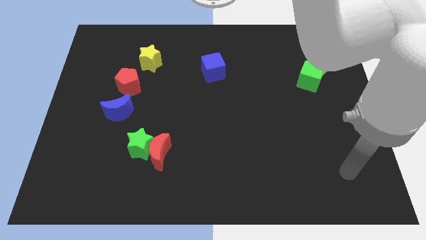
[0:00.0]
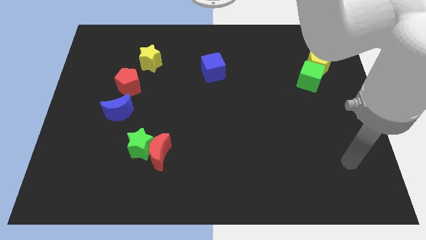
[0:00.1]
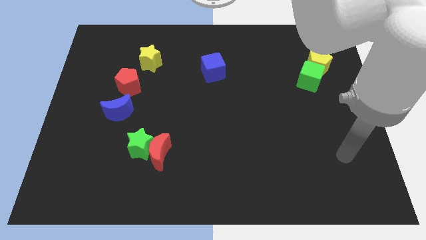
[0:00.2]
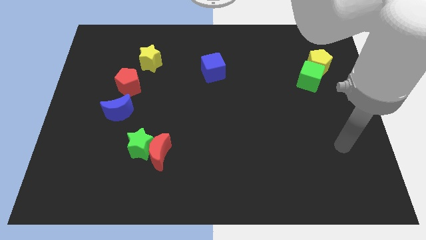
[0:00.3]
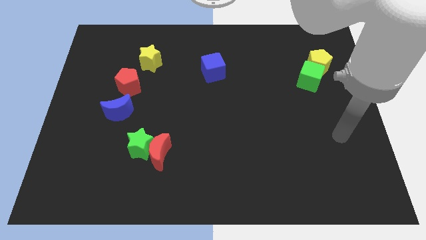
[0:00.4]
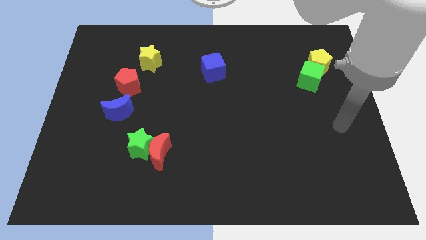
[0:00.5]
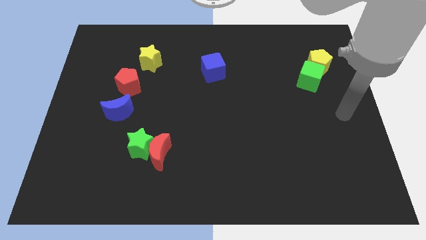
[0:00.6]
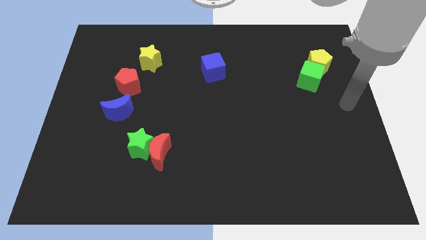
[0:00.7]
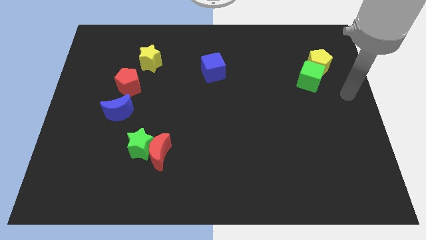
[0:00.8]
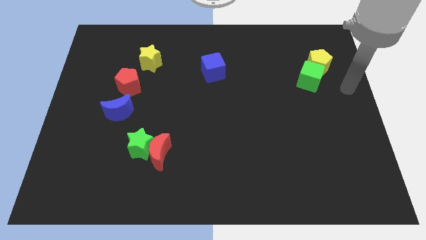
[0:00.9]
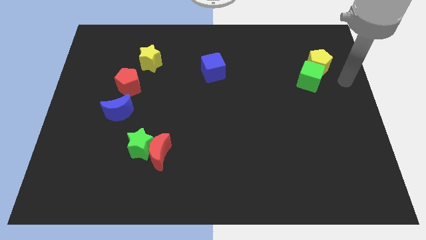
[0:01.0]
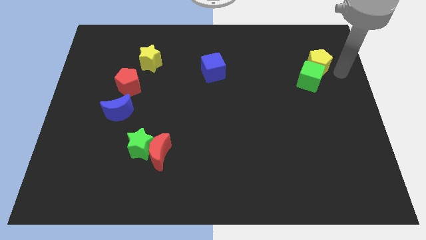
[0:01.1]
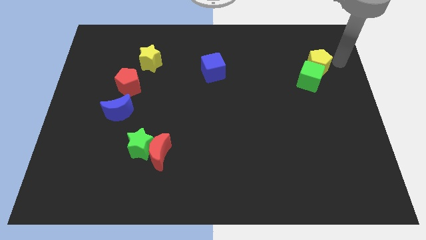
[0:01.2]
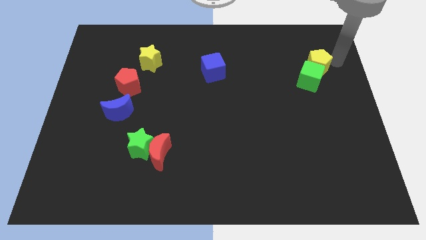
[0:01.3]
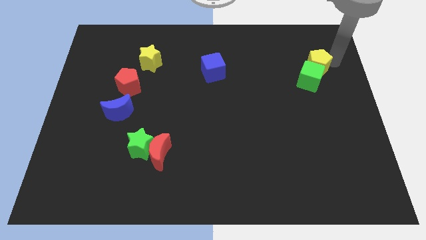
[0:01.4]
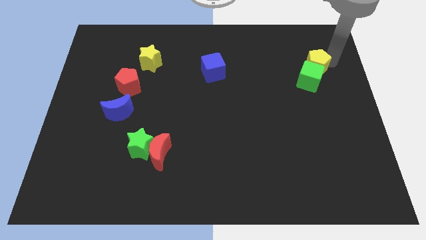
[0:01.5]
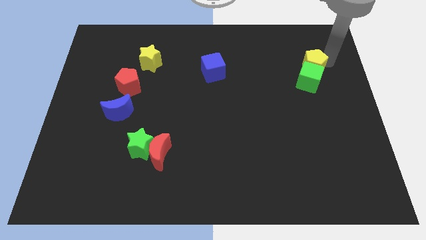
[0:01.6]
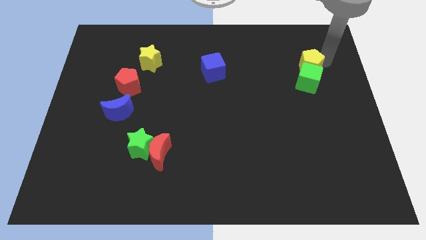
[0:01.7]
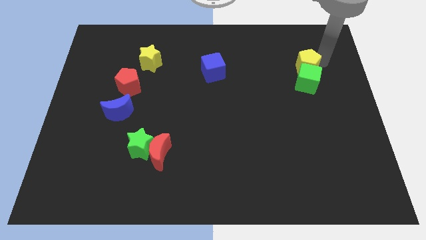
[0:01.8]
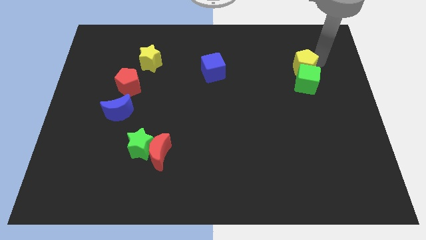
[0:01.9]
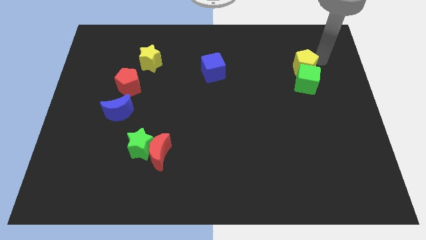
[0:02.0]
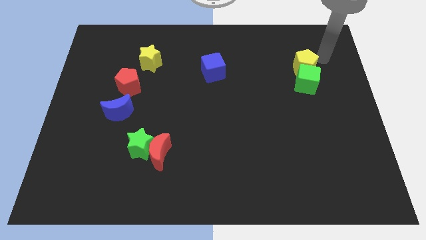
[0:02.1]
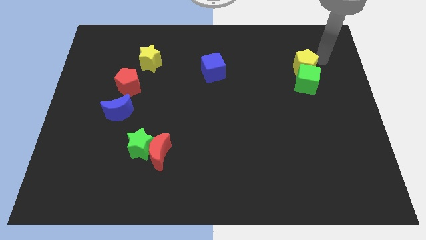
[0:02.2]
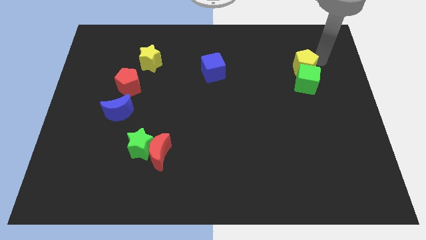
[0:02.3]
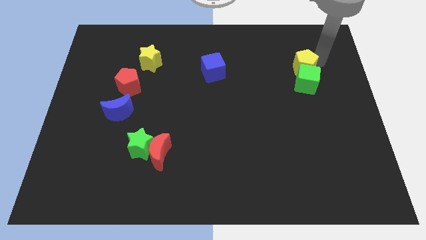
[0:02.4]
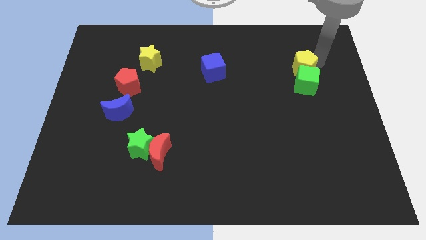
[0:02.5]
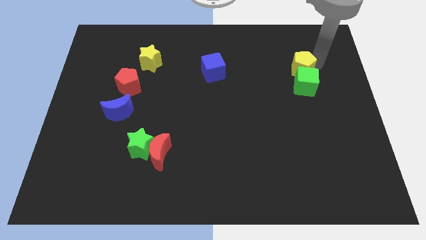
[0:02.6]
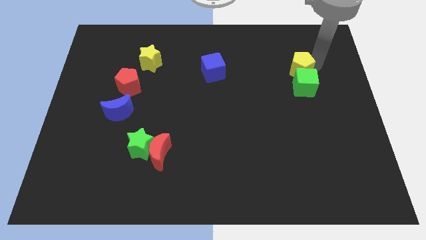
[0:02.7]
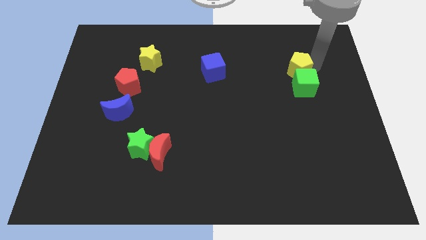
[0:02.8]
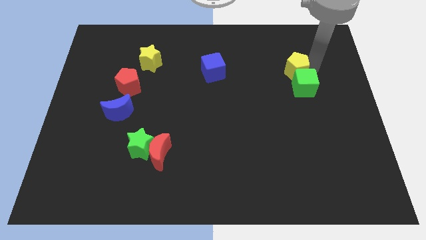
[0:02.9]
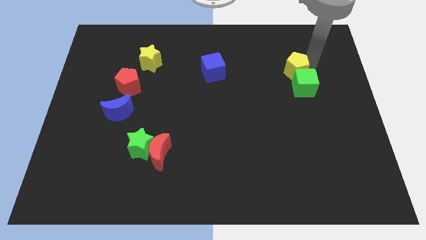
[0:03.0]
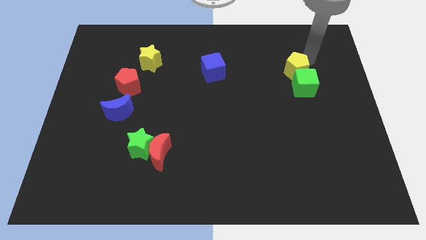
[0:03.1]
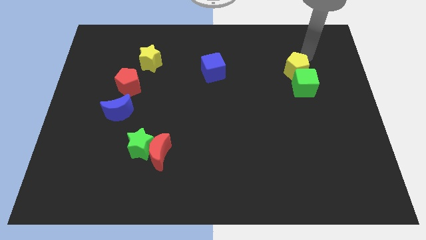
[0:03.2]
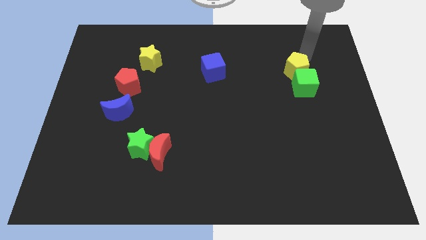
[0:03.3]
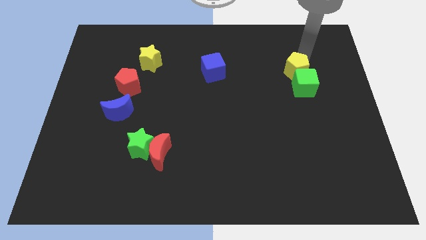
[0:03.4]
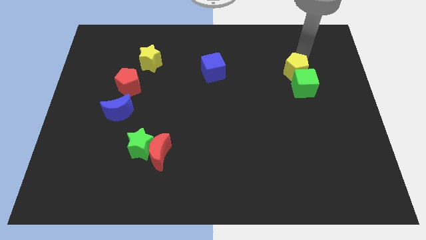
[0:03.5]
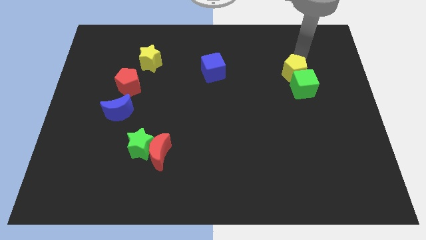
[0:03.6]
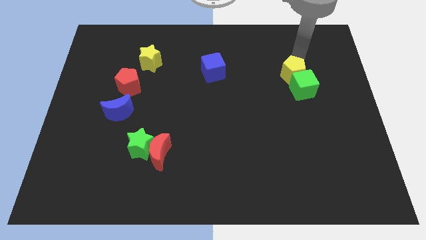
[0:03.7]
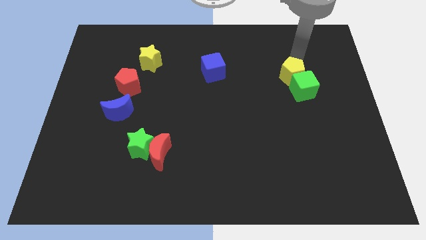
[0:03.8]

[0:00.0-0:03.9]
move the yellow pentagon a little diagonally downwards and to the left

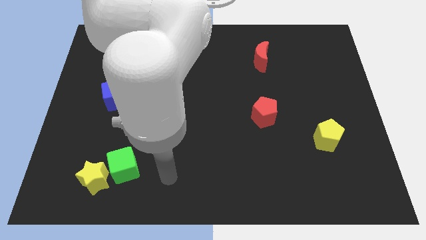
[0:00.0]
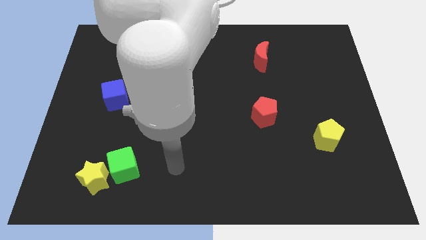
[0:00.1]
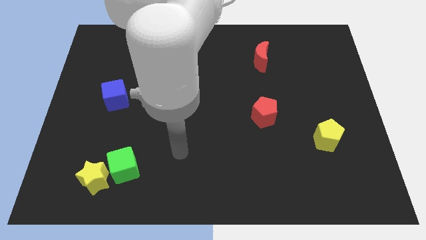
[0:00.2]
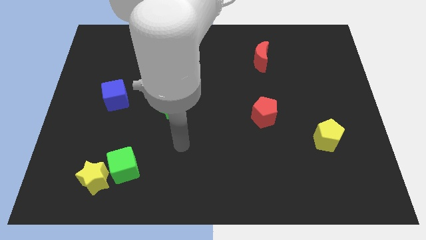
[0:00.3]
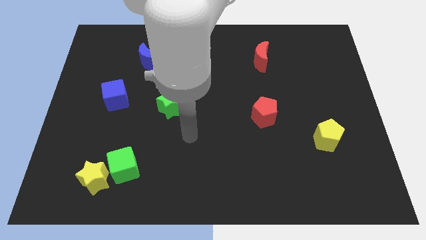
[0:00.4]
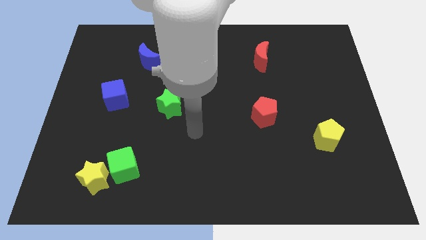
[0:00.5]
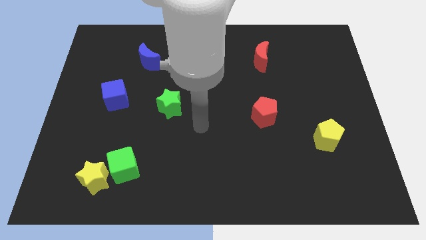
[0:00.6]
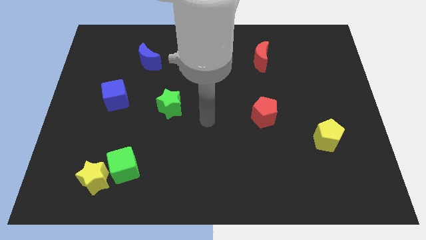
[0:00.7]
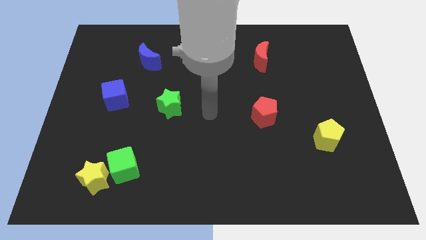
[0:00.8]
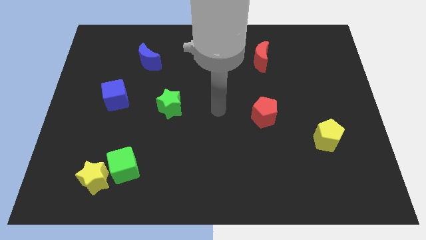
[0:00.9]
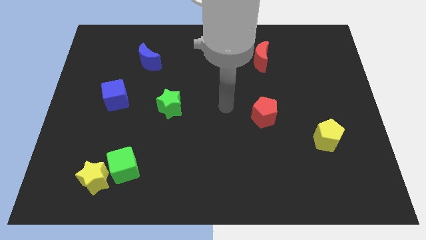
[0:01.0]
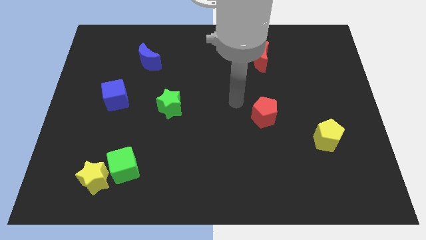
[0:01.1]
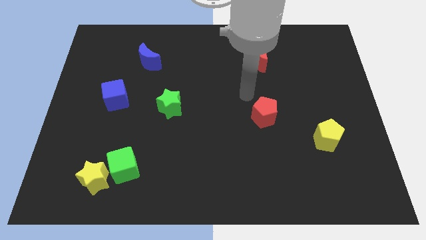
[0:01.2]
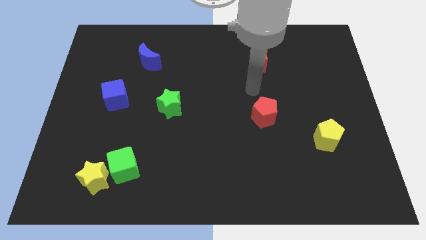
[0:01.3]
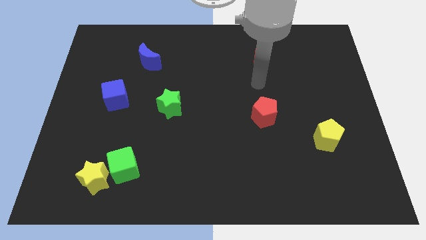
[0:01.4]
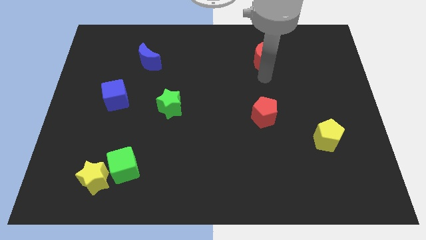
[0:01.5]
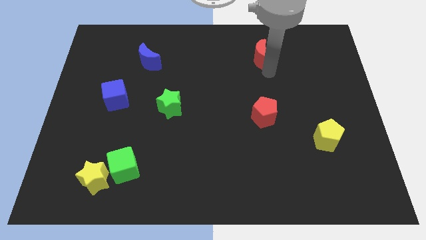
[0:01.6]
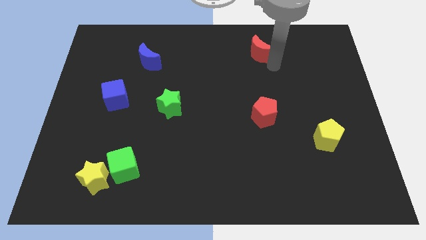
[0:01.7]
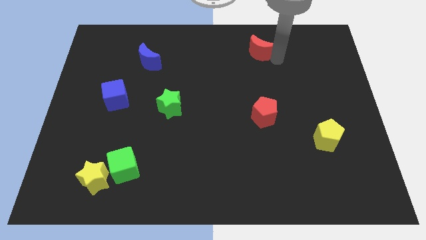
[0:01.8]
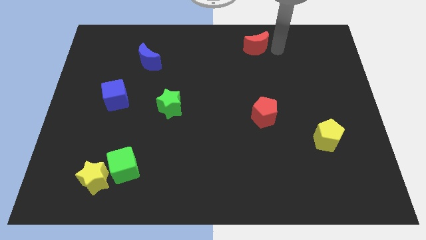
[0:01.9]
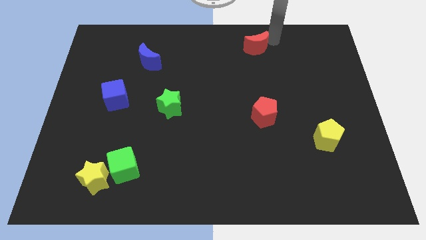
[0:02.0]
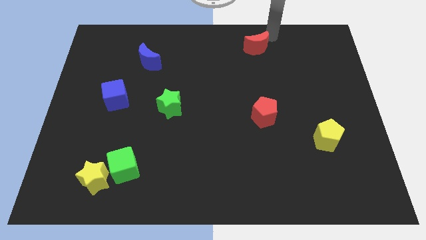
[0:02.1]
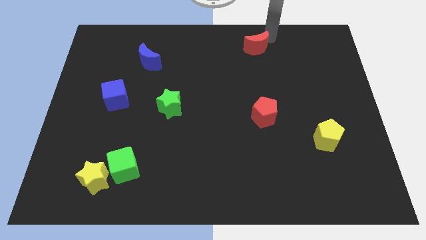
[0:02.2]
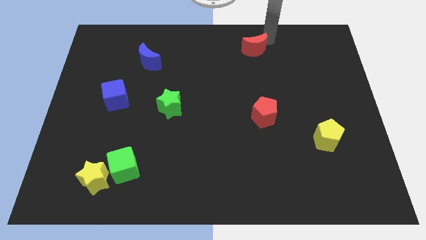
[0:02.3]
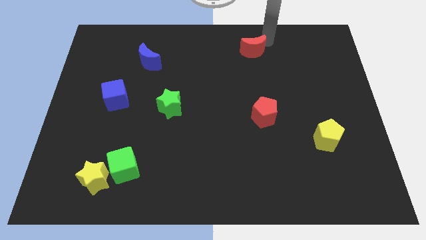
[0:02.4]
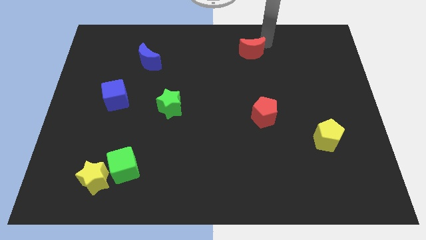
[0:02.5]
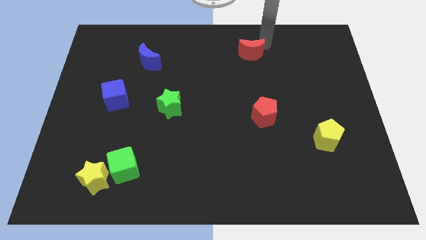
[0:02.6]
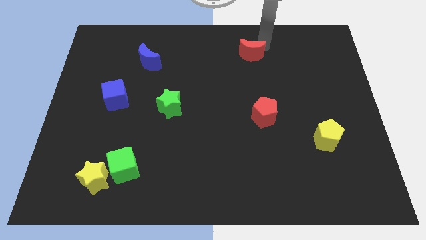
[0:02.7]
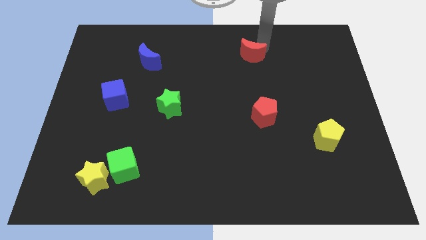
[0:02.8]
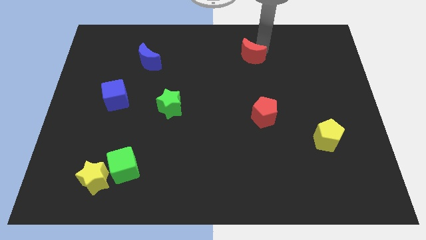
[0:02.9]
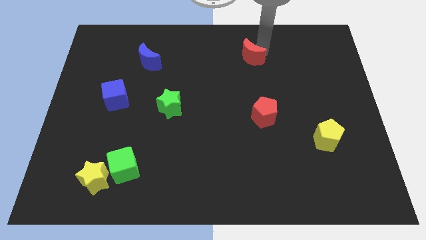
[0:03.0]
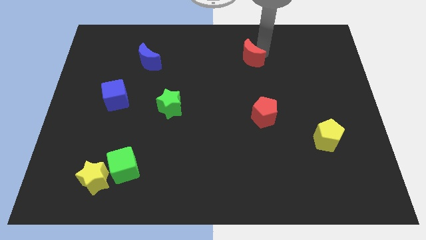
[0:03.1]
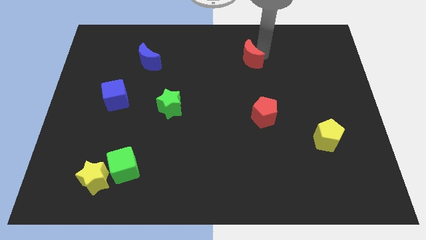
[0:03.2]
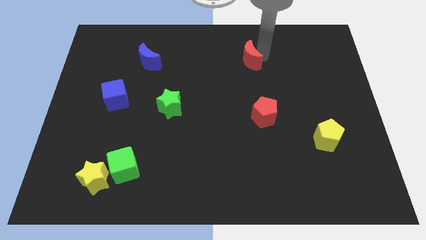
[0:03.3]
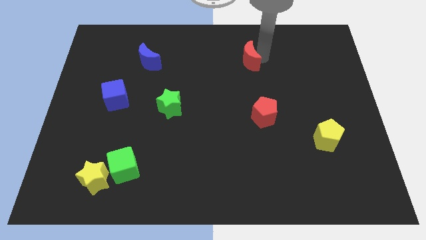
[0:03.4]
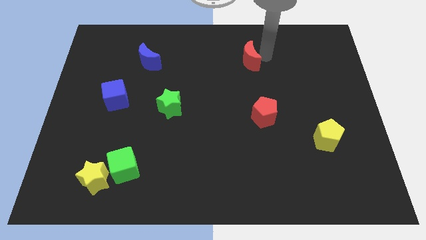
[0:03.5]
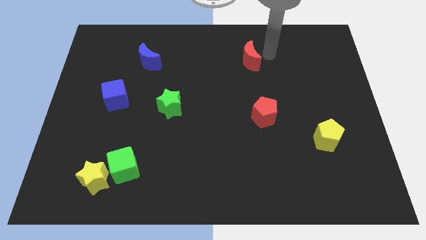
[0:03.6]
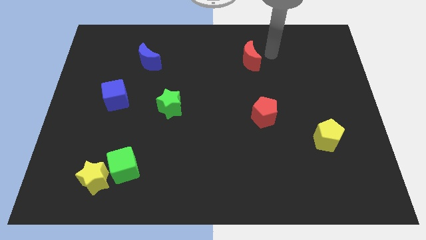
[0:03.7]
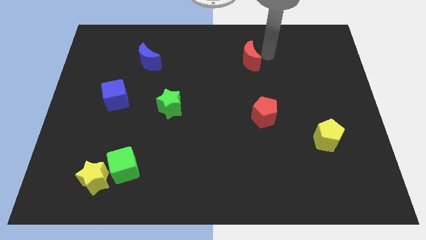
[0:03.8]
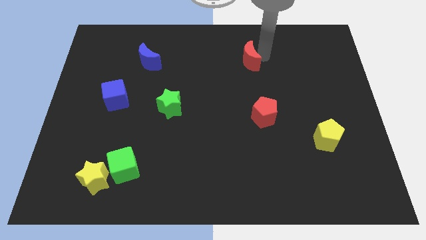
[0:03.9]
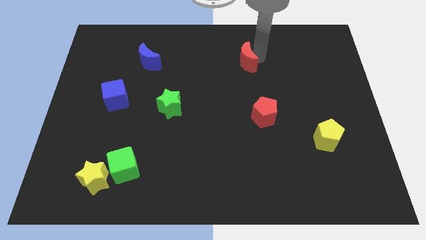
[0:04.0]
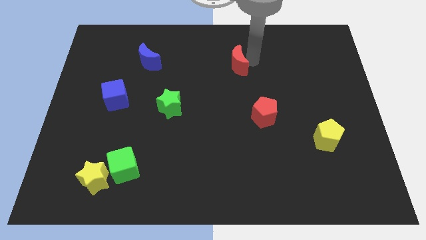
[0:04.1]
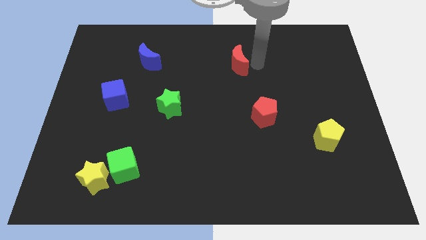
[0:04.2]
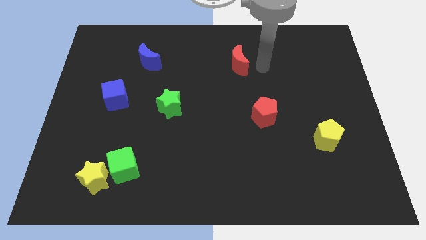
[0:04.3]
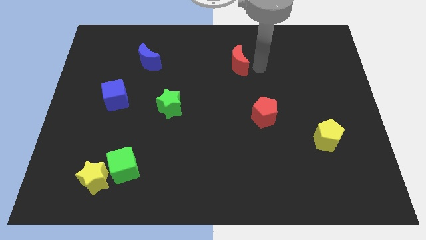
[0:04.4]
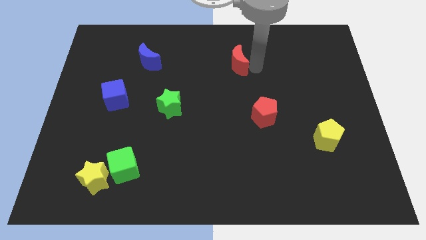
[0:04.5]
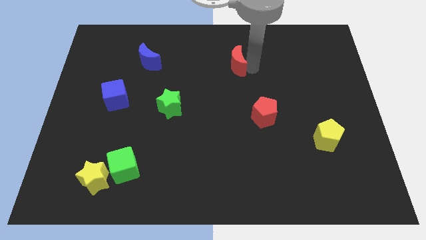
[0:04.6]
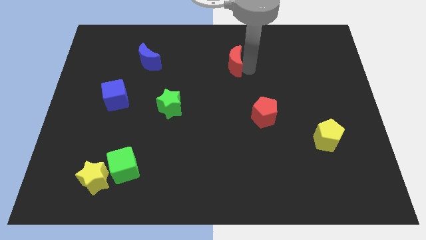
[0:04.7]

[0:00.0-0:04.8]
slide the red moon to the left somewhat
